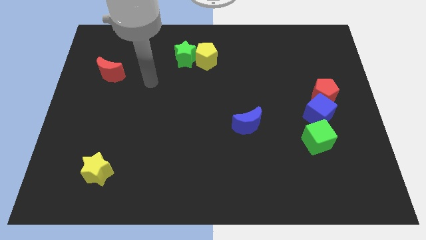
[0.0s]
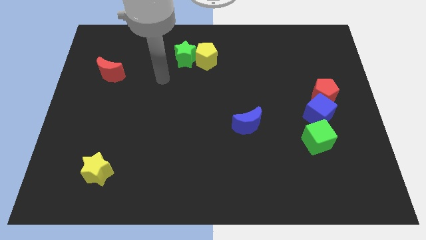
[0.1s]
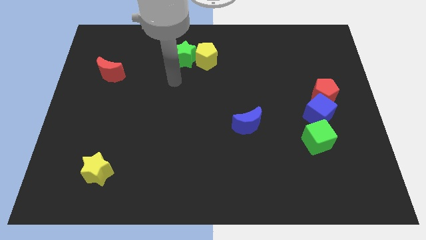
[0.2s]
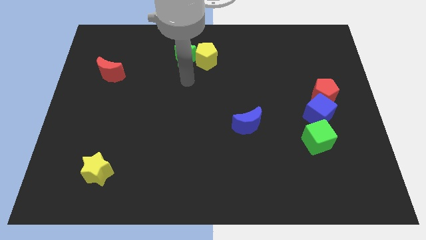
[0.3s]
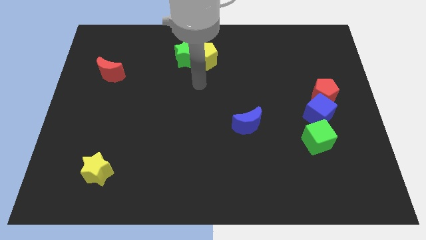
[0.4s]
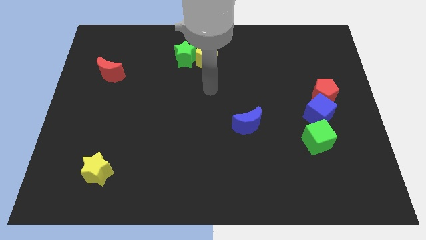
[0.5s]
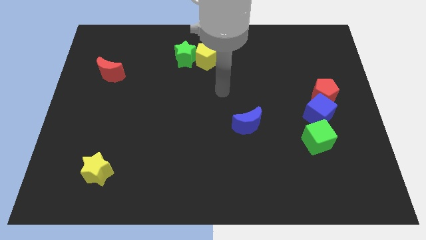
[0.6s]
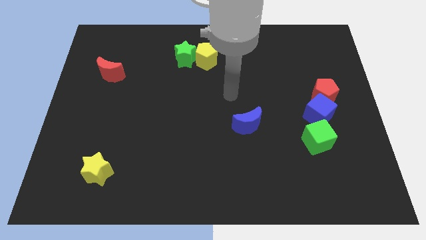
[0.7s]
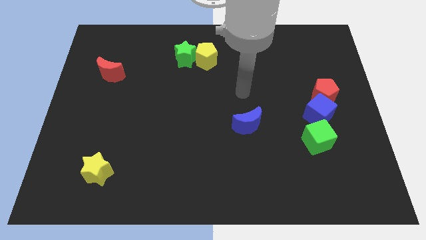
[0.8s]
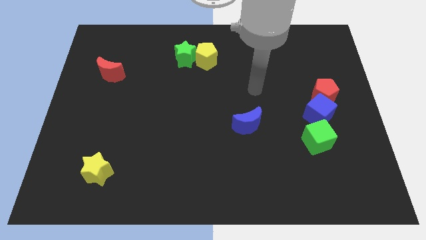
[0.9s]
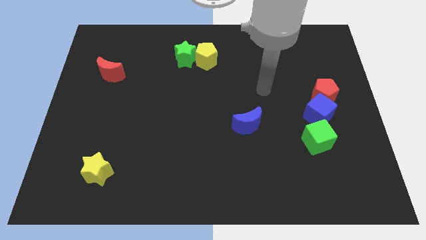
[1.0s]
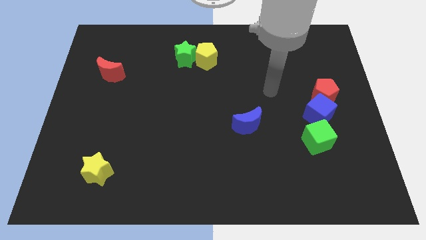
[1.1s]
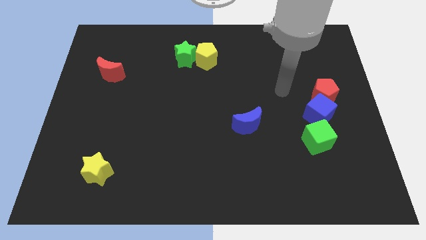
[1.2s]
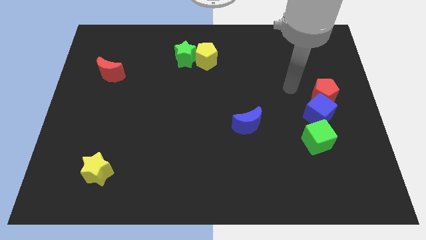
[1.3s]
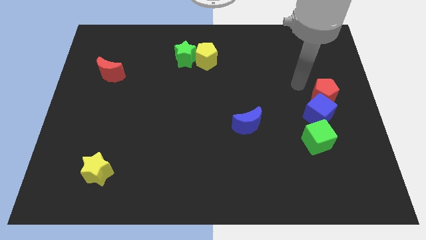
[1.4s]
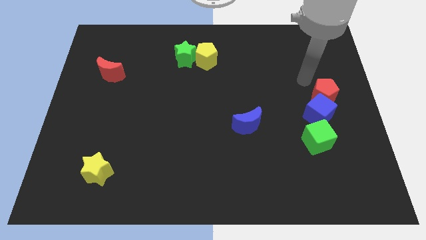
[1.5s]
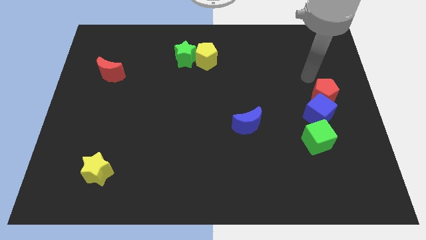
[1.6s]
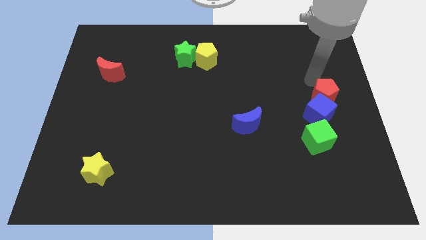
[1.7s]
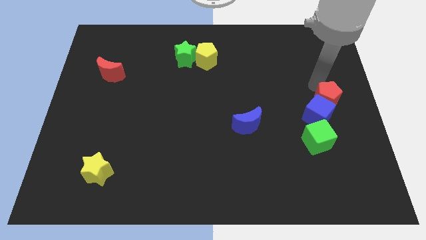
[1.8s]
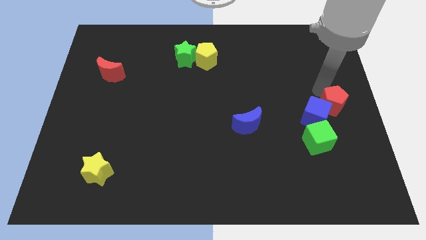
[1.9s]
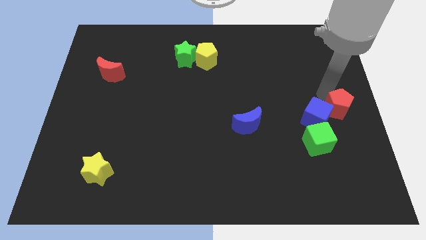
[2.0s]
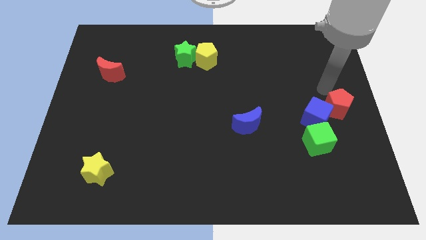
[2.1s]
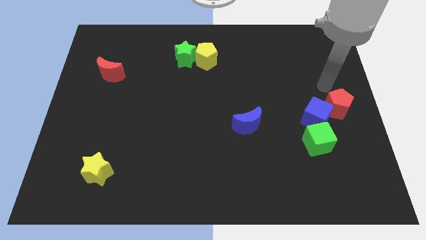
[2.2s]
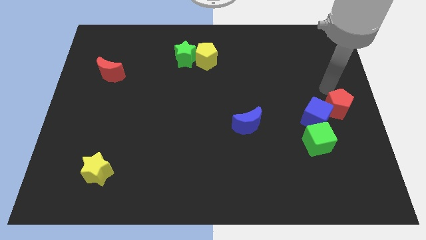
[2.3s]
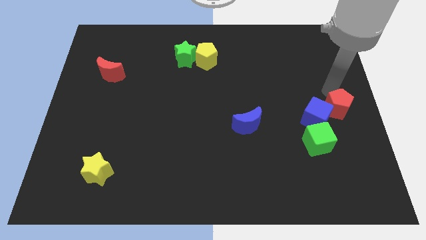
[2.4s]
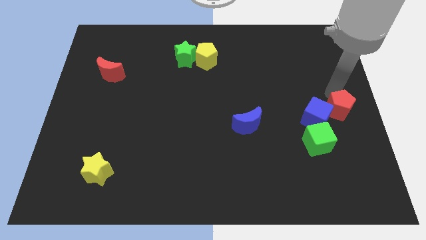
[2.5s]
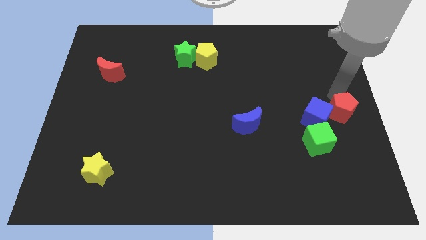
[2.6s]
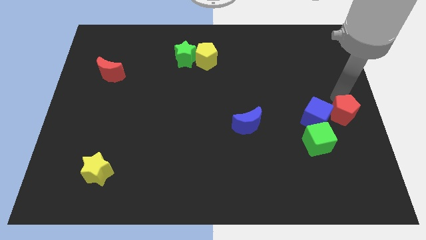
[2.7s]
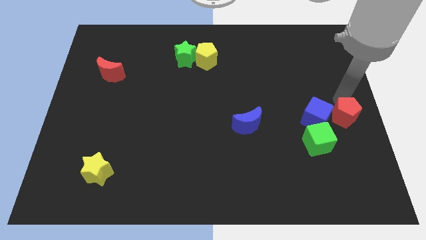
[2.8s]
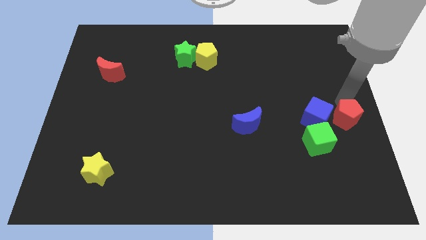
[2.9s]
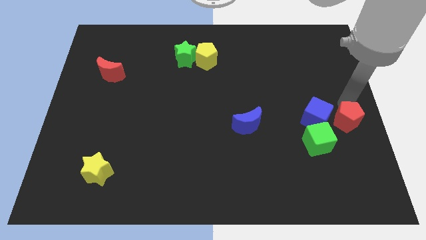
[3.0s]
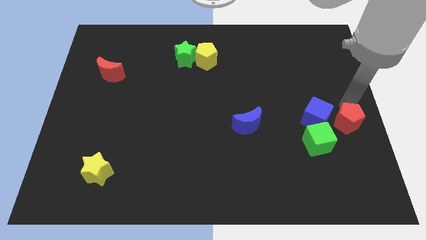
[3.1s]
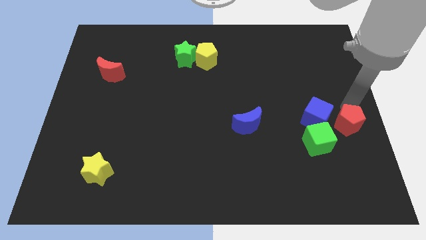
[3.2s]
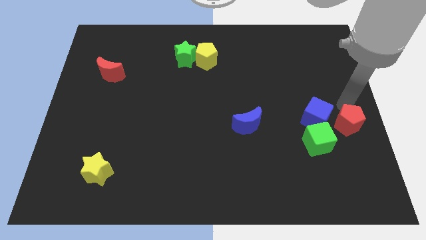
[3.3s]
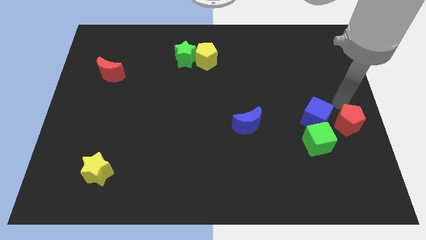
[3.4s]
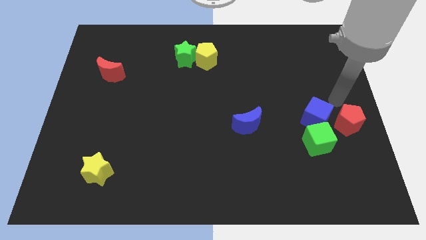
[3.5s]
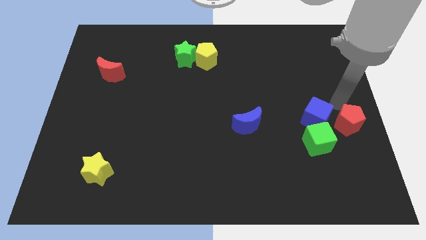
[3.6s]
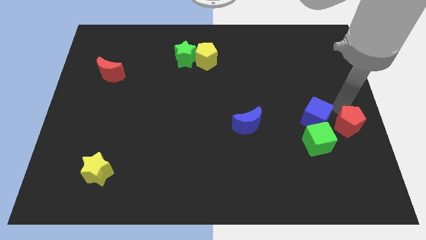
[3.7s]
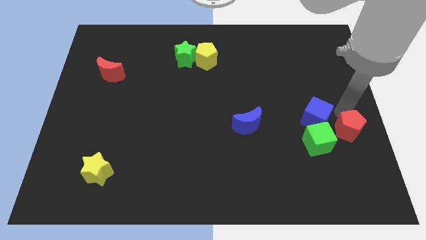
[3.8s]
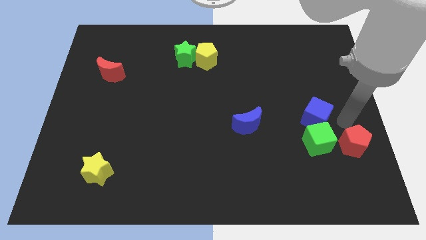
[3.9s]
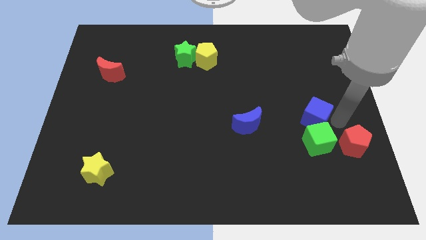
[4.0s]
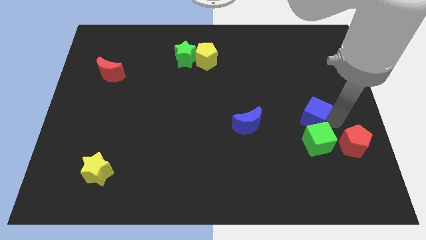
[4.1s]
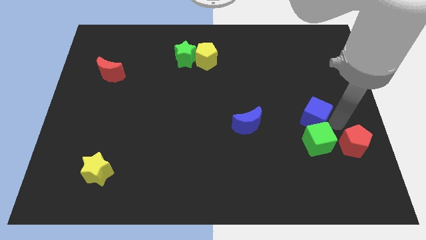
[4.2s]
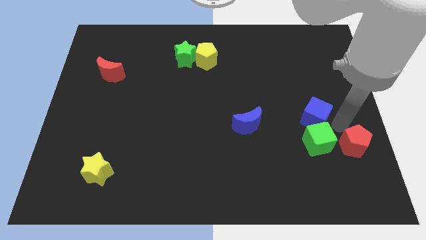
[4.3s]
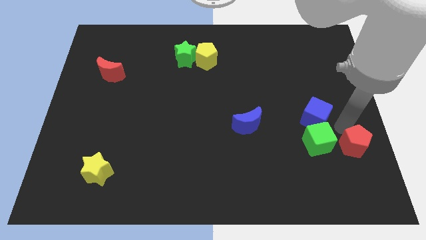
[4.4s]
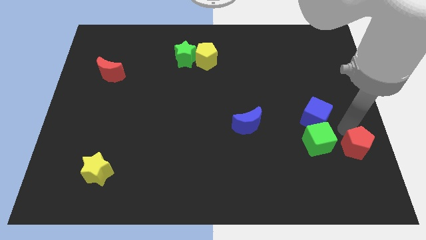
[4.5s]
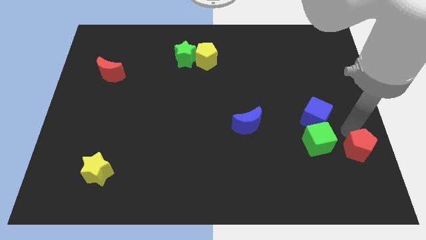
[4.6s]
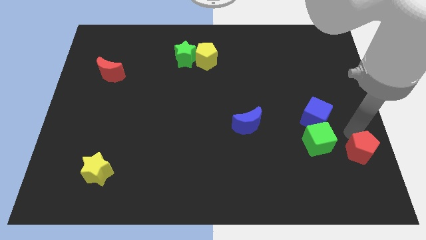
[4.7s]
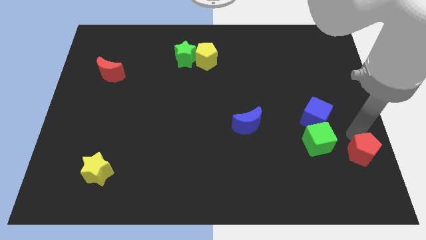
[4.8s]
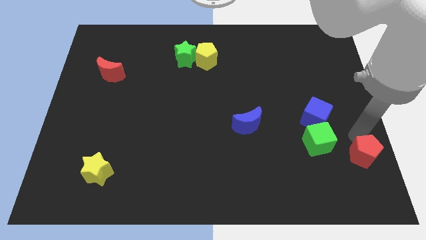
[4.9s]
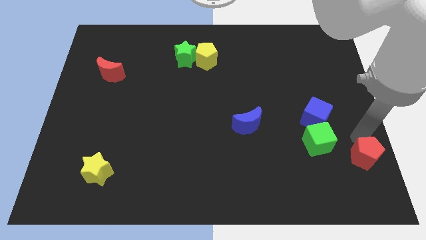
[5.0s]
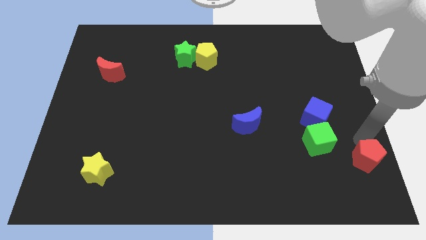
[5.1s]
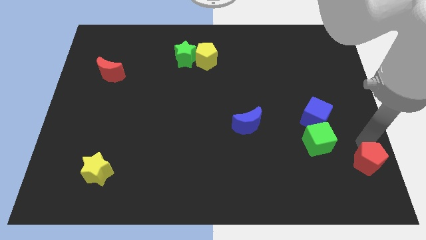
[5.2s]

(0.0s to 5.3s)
push the red pentagon to the bottom right

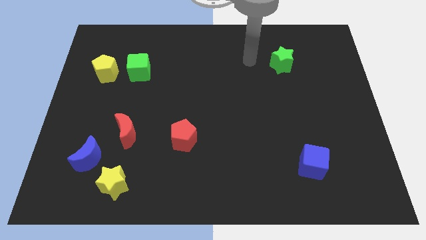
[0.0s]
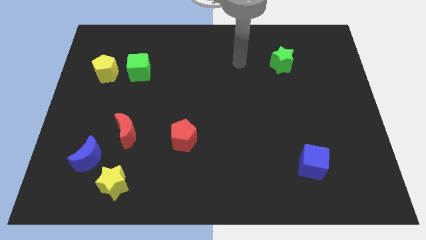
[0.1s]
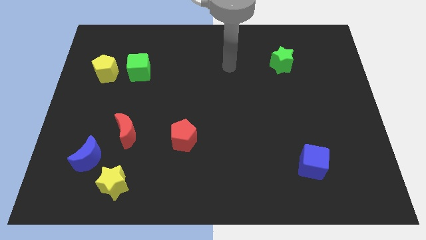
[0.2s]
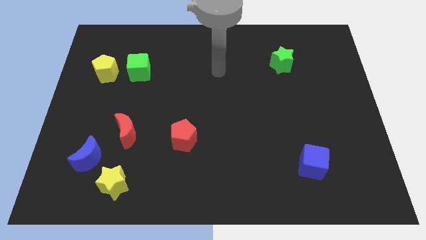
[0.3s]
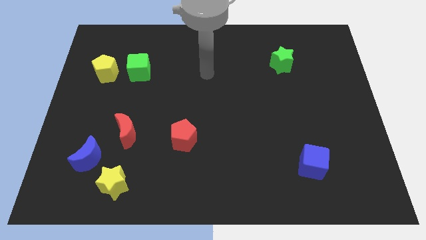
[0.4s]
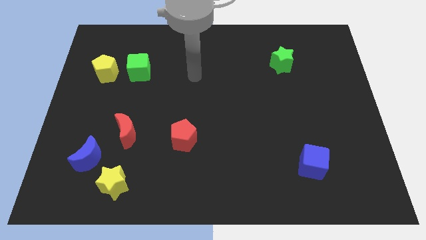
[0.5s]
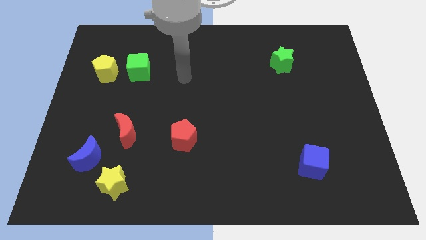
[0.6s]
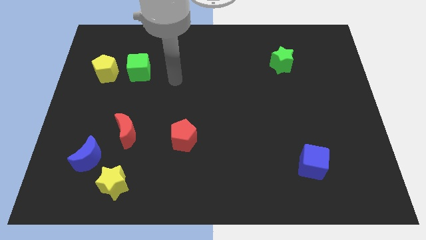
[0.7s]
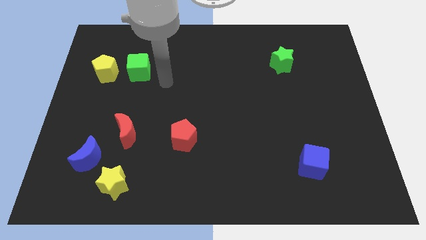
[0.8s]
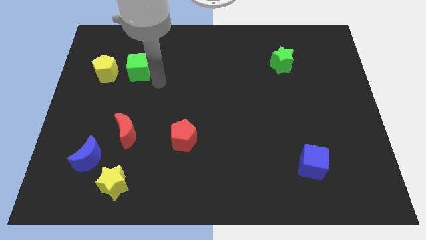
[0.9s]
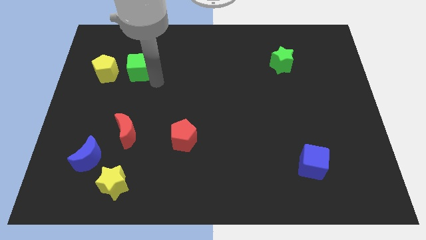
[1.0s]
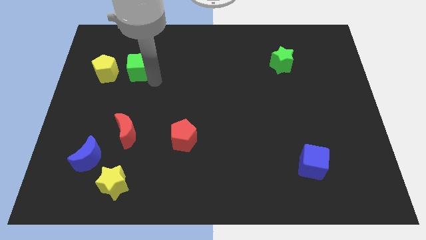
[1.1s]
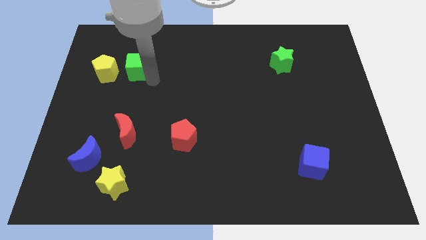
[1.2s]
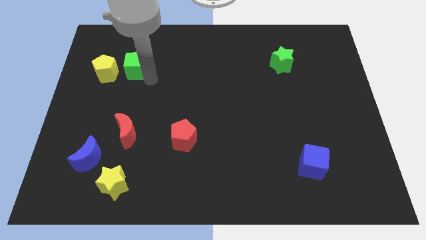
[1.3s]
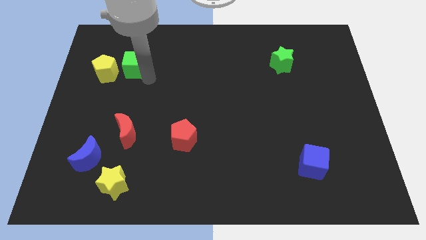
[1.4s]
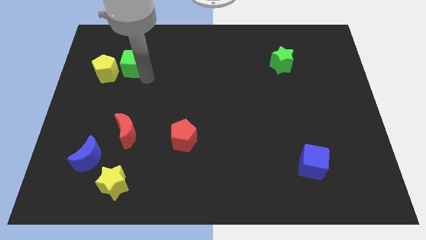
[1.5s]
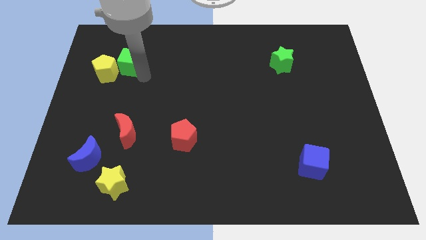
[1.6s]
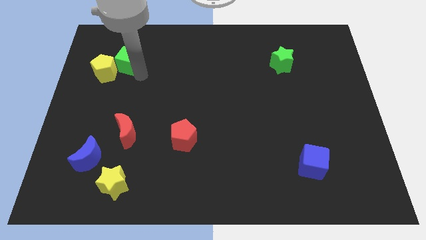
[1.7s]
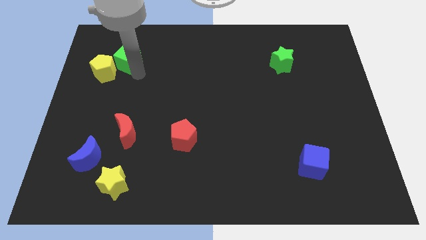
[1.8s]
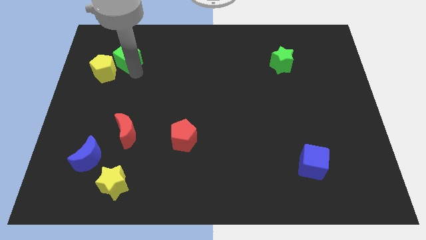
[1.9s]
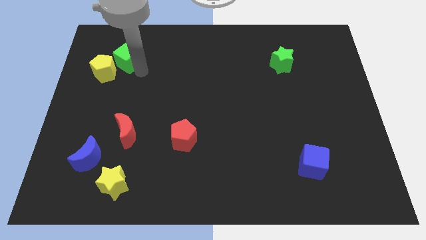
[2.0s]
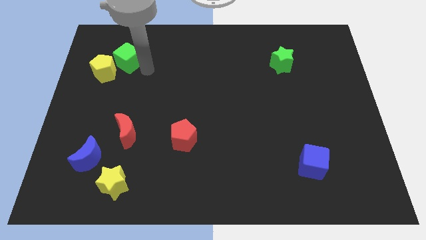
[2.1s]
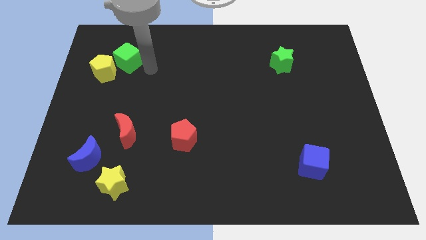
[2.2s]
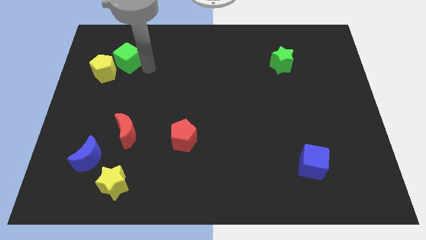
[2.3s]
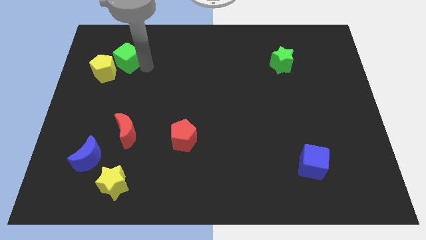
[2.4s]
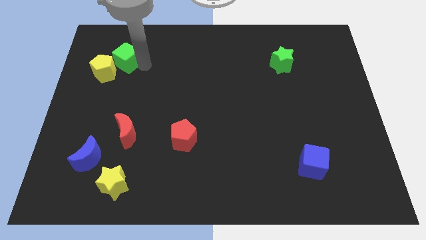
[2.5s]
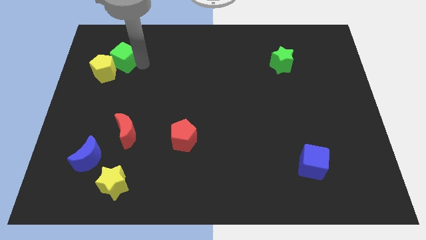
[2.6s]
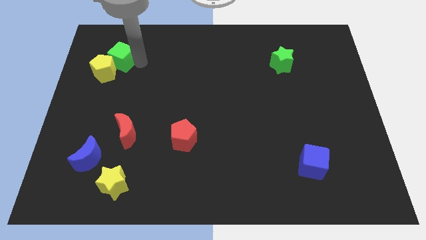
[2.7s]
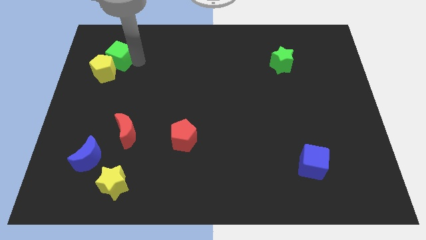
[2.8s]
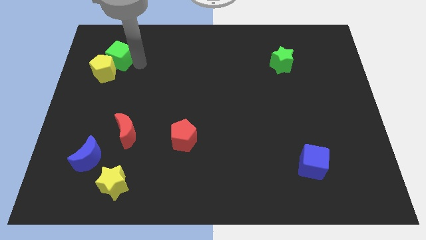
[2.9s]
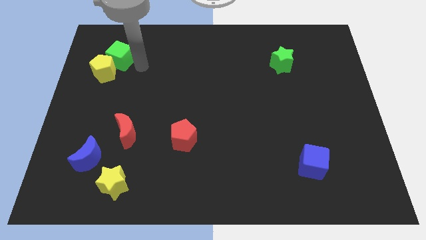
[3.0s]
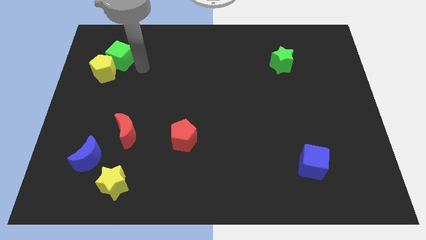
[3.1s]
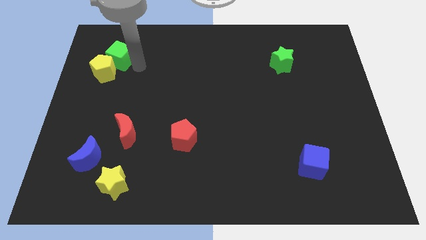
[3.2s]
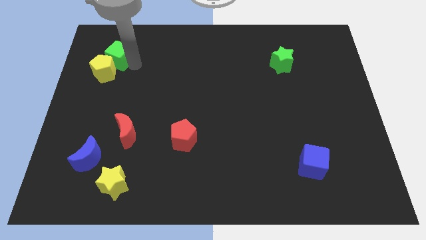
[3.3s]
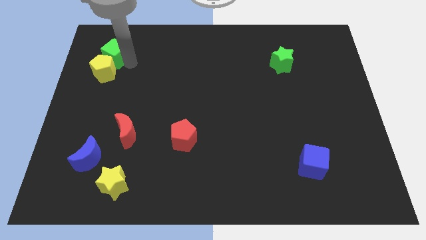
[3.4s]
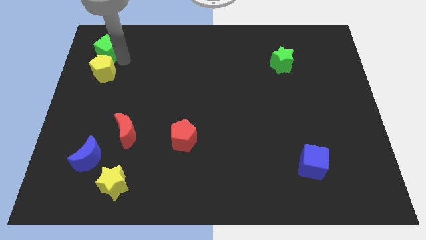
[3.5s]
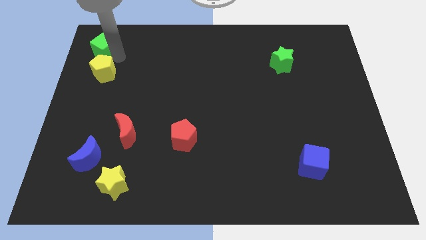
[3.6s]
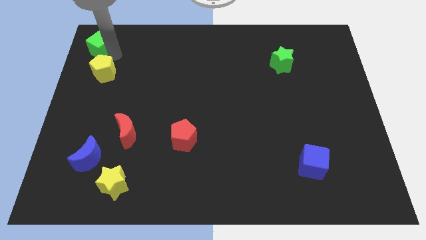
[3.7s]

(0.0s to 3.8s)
put the green cube to the top left
